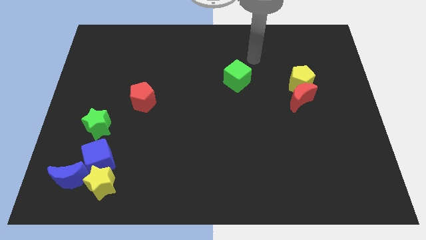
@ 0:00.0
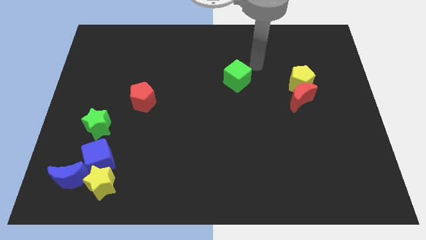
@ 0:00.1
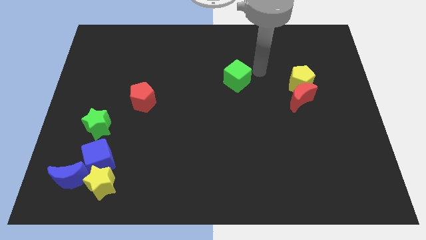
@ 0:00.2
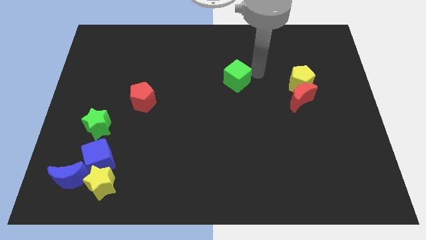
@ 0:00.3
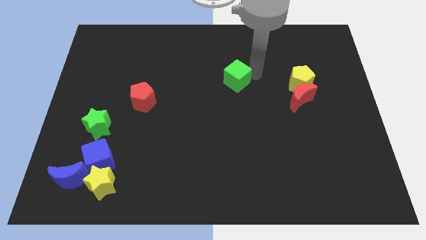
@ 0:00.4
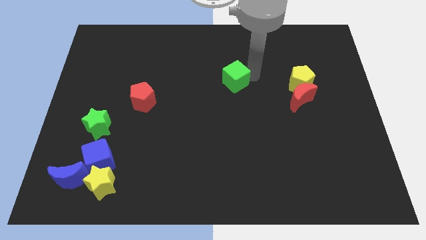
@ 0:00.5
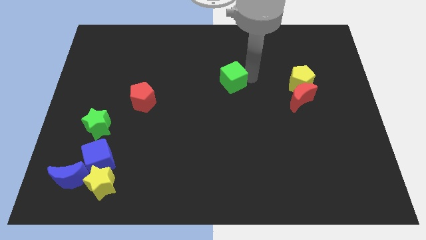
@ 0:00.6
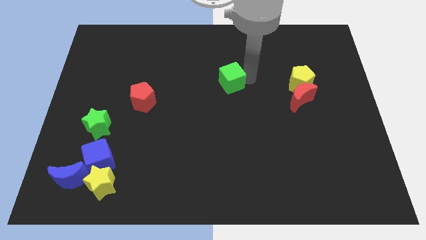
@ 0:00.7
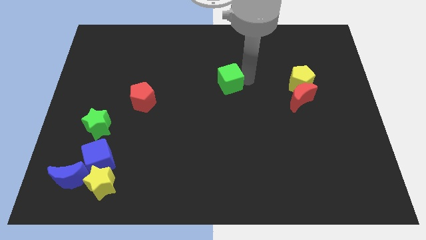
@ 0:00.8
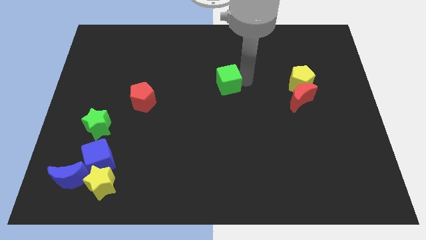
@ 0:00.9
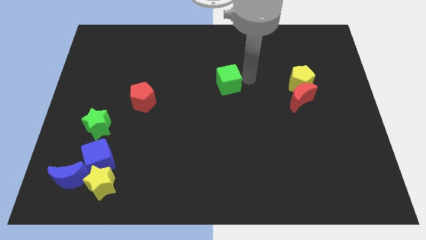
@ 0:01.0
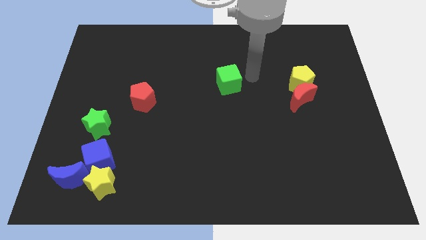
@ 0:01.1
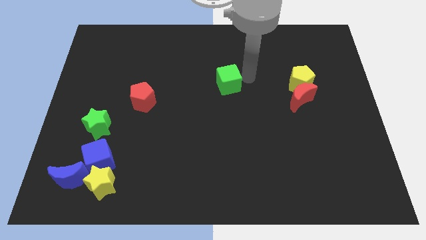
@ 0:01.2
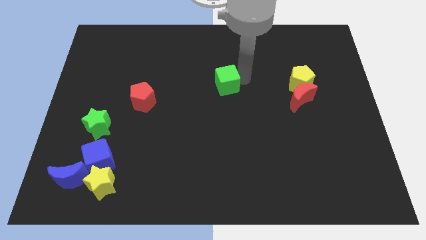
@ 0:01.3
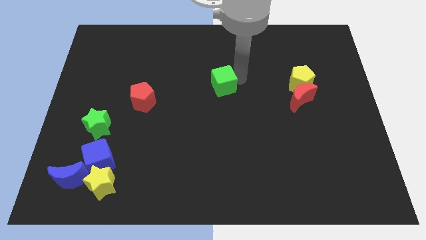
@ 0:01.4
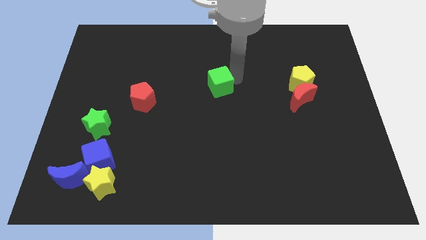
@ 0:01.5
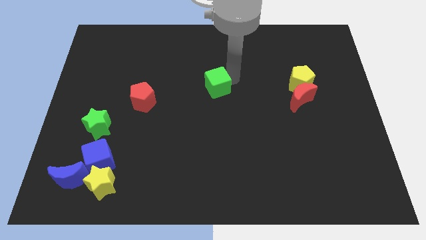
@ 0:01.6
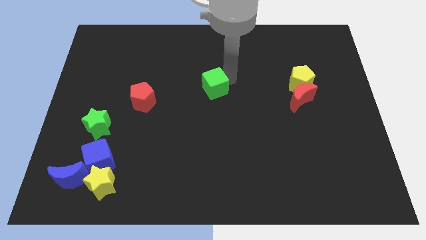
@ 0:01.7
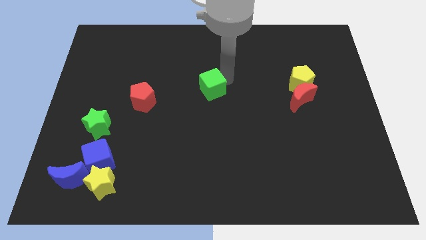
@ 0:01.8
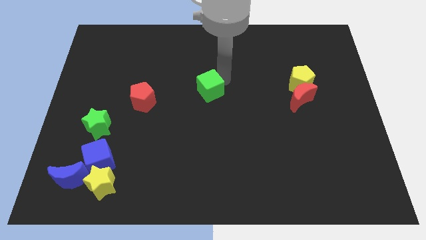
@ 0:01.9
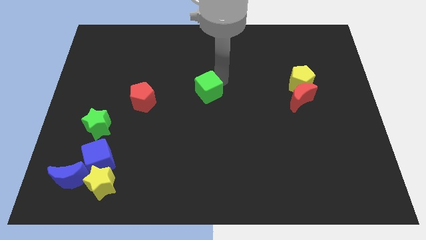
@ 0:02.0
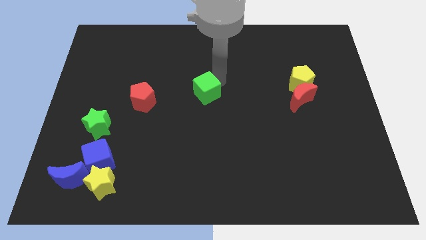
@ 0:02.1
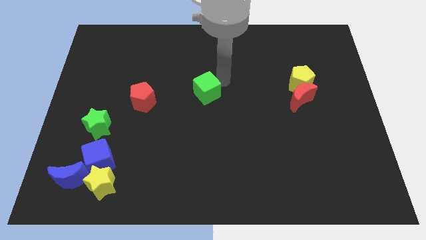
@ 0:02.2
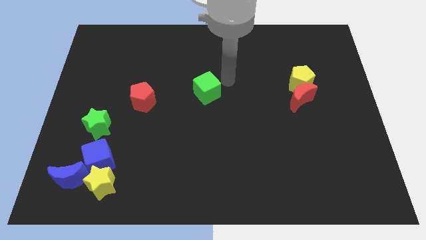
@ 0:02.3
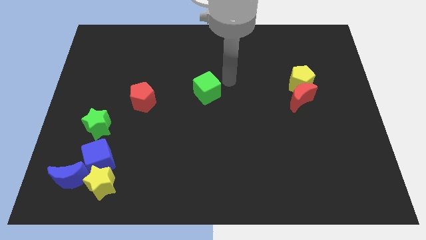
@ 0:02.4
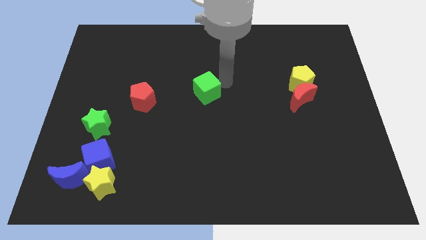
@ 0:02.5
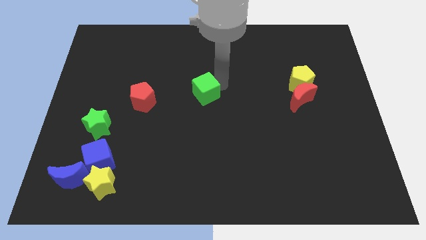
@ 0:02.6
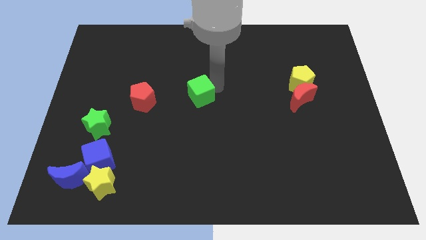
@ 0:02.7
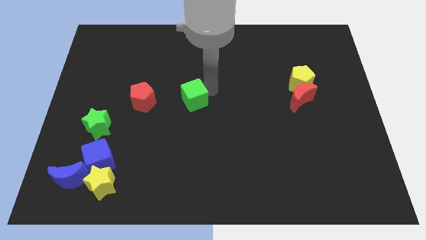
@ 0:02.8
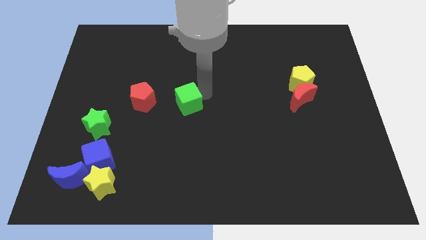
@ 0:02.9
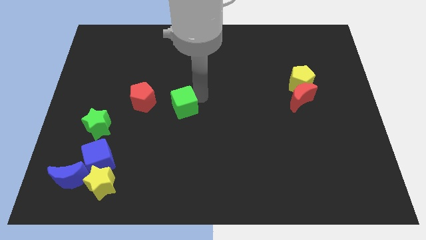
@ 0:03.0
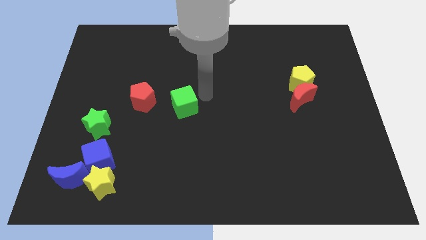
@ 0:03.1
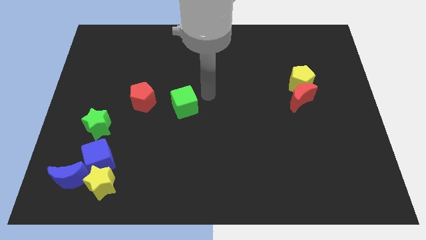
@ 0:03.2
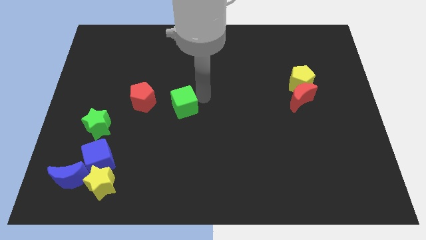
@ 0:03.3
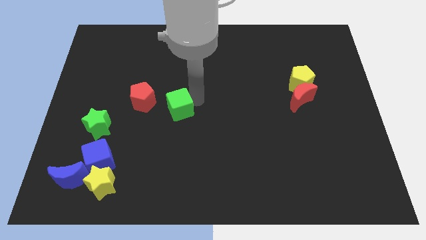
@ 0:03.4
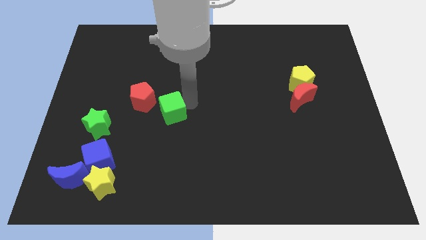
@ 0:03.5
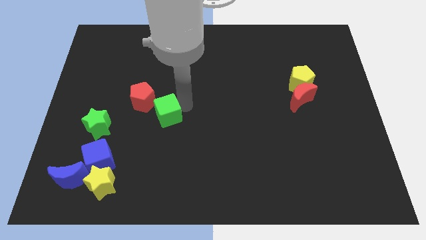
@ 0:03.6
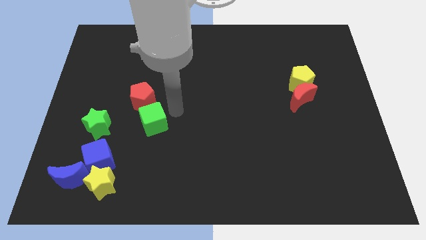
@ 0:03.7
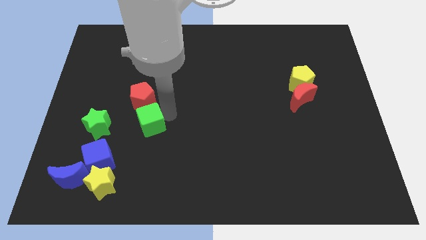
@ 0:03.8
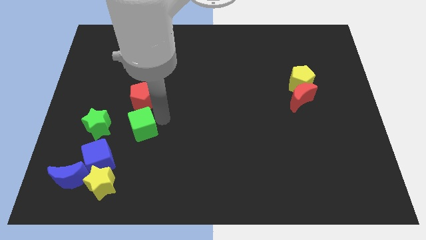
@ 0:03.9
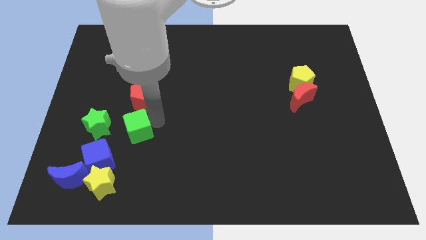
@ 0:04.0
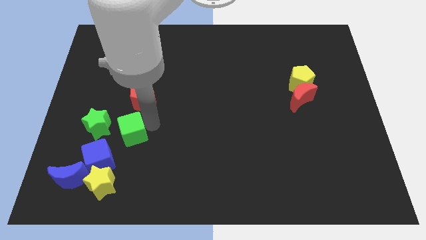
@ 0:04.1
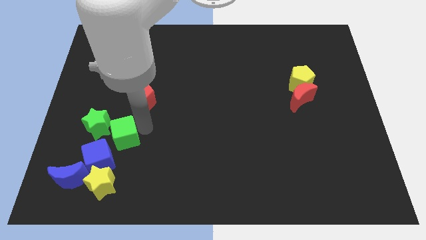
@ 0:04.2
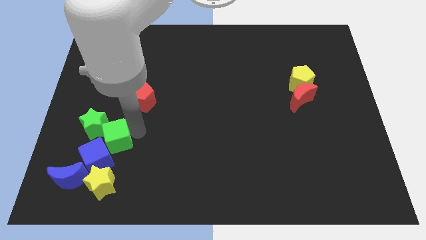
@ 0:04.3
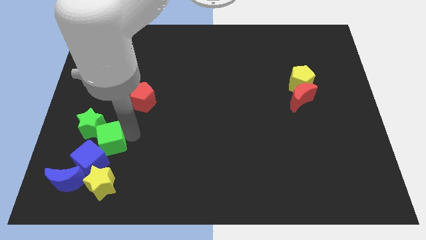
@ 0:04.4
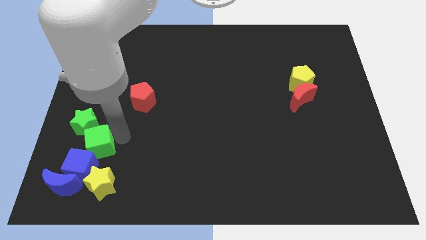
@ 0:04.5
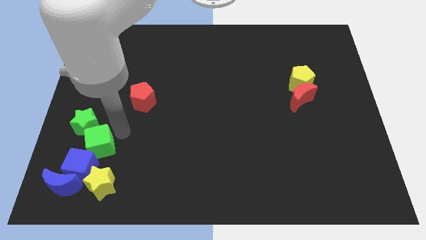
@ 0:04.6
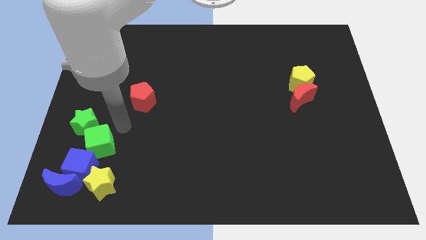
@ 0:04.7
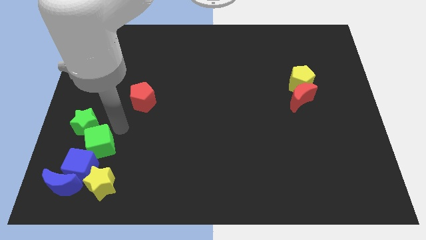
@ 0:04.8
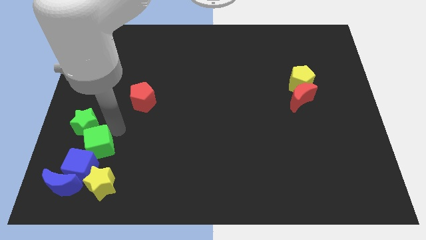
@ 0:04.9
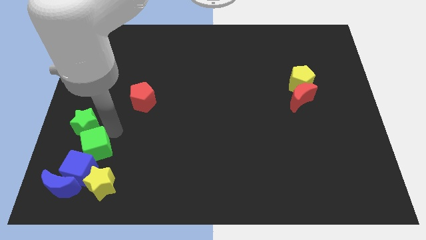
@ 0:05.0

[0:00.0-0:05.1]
push the green cube to the top left of the yellow star

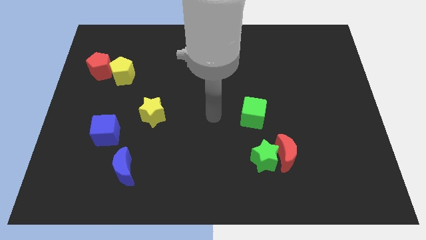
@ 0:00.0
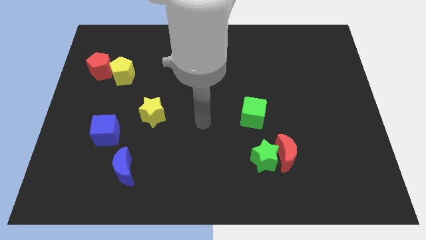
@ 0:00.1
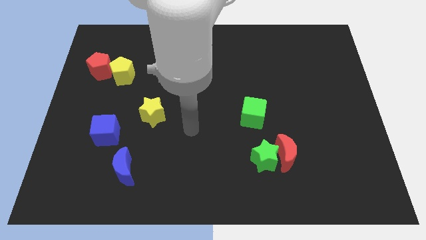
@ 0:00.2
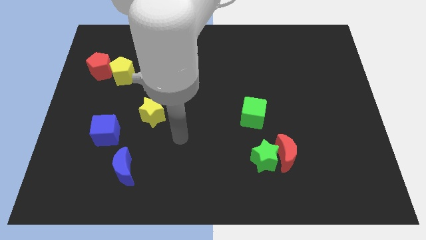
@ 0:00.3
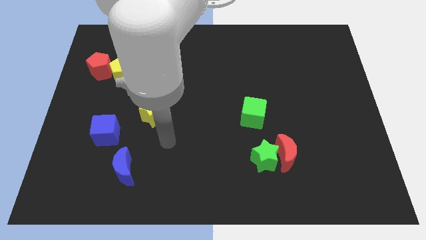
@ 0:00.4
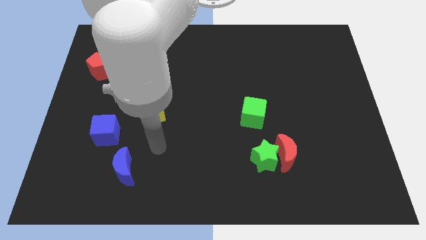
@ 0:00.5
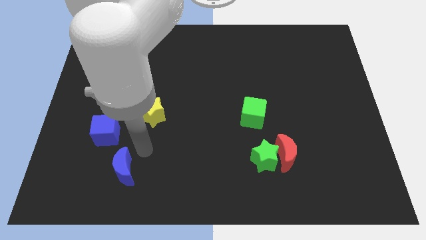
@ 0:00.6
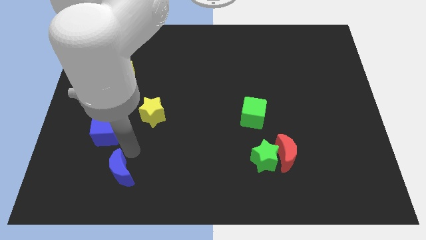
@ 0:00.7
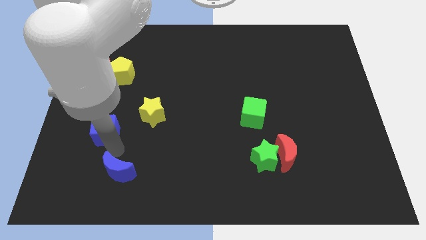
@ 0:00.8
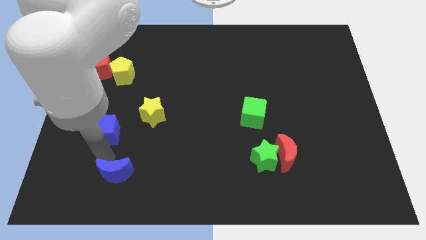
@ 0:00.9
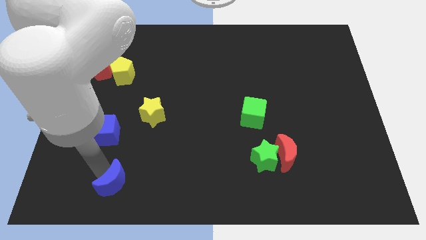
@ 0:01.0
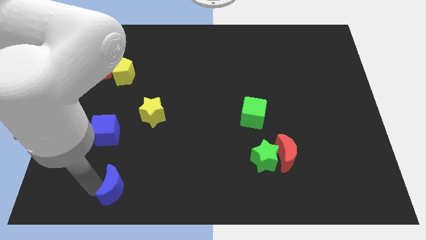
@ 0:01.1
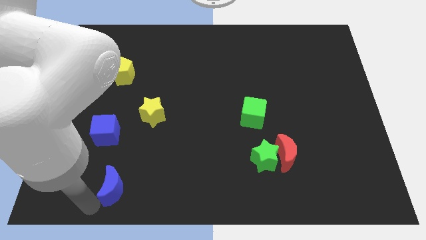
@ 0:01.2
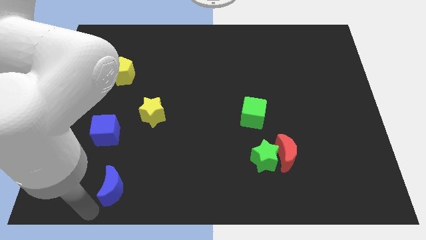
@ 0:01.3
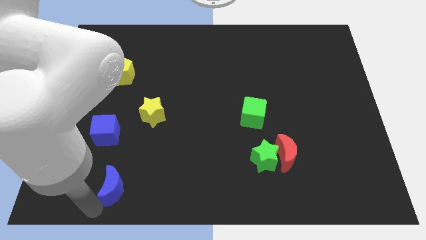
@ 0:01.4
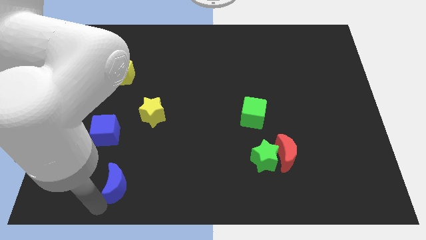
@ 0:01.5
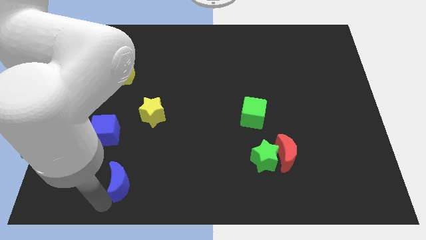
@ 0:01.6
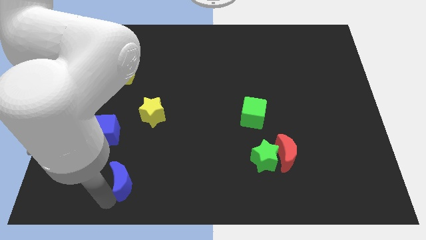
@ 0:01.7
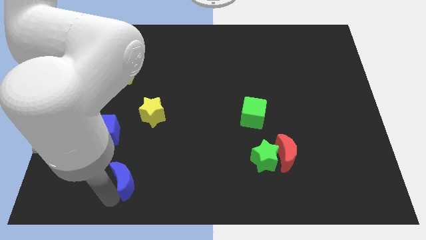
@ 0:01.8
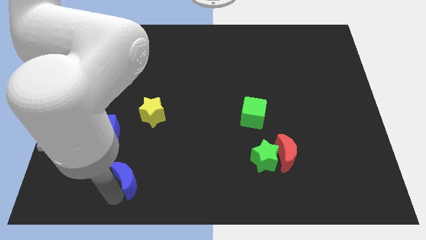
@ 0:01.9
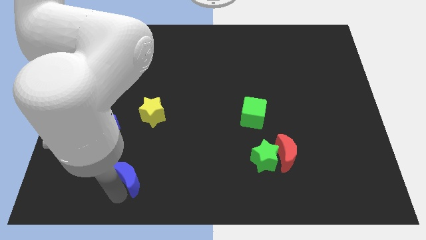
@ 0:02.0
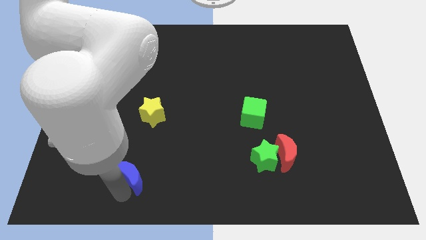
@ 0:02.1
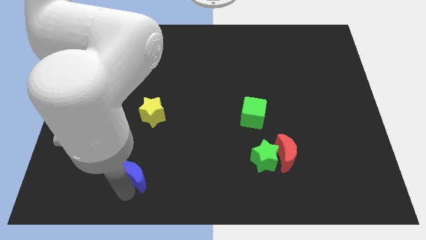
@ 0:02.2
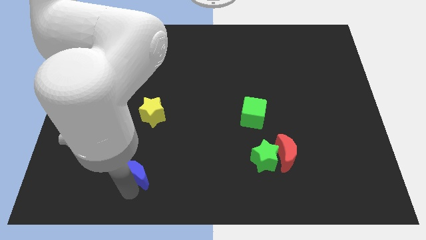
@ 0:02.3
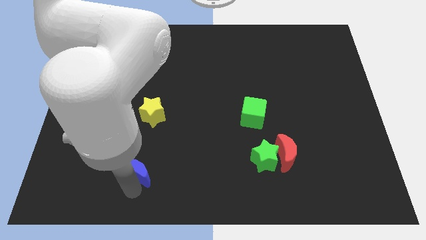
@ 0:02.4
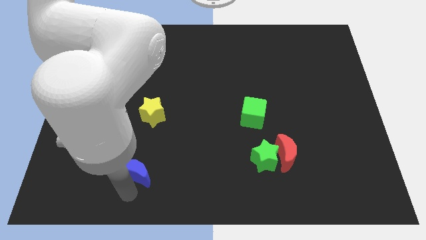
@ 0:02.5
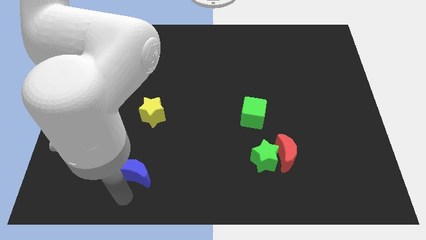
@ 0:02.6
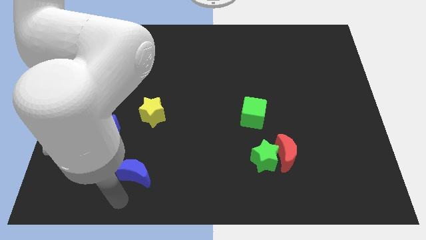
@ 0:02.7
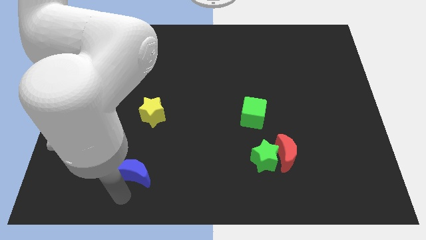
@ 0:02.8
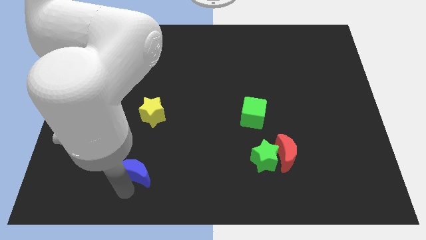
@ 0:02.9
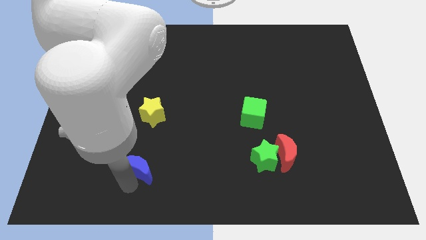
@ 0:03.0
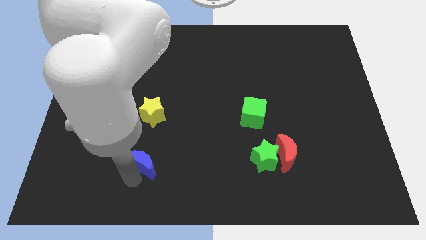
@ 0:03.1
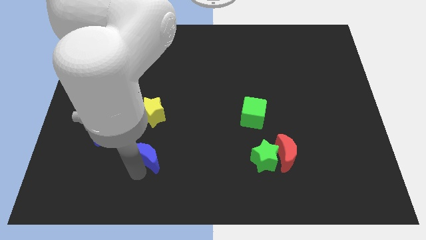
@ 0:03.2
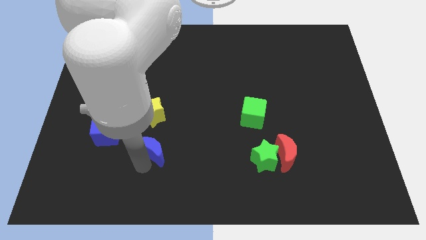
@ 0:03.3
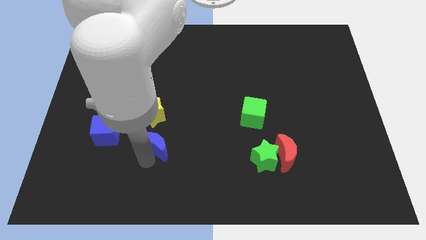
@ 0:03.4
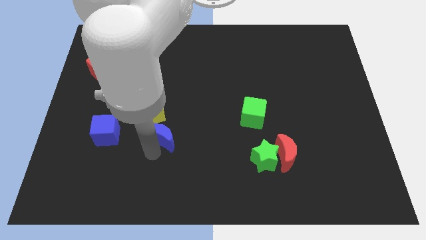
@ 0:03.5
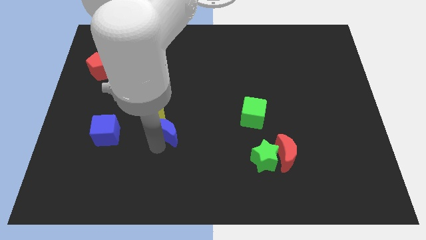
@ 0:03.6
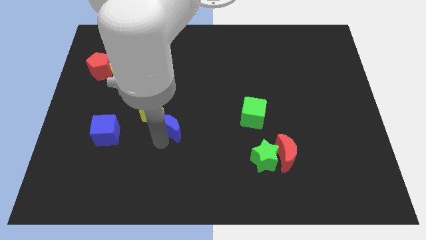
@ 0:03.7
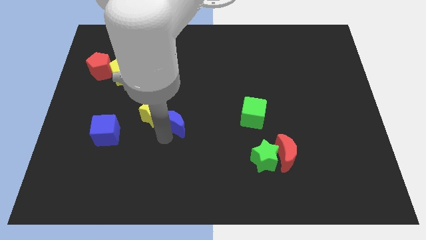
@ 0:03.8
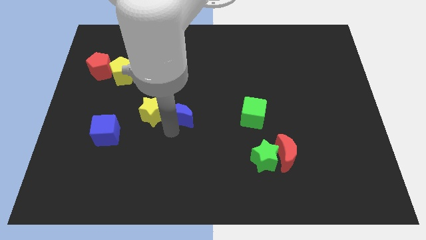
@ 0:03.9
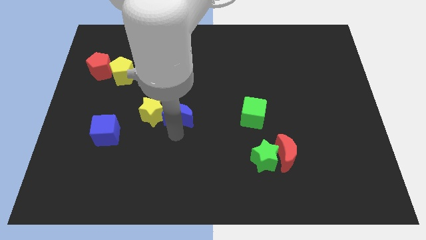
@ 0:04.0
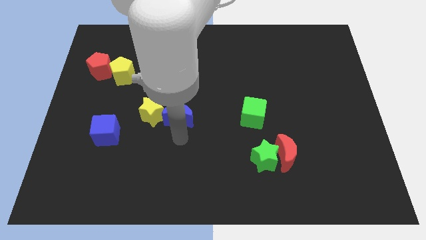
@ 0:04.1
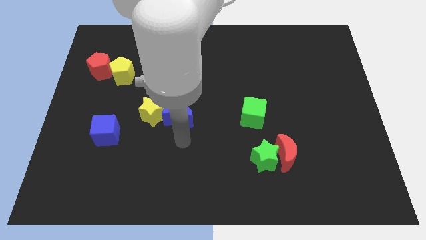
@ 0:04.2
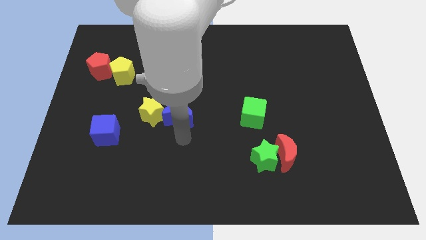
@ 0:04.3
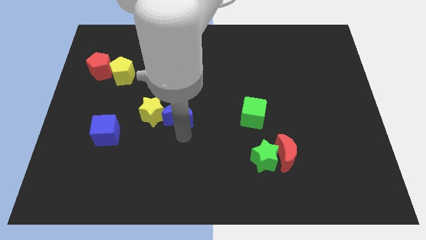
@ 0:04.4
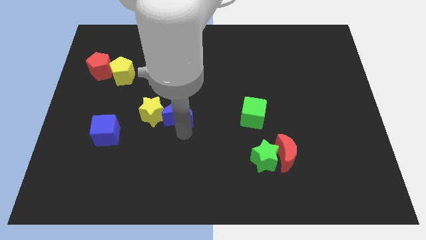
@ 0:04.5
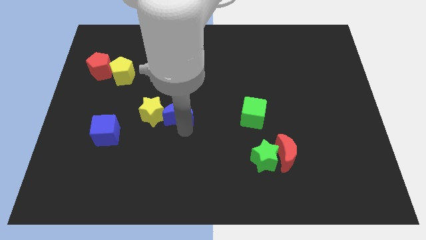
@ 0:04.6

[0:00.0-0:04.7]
slide the blue moon diagonally up and to the right of the yellow star
